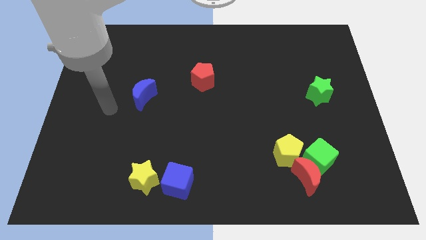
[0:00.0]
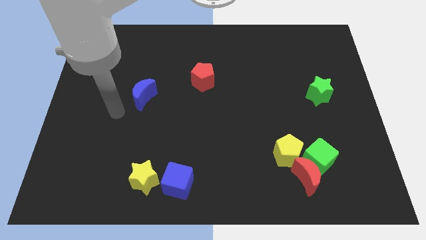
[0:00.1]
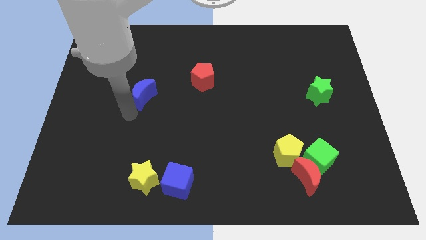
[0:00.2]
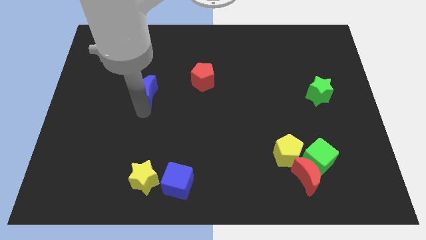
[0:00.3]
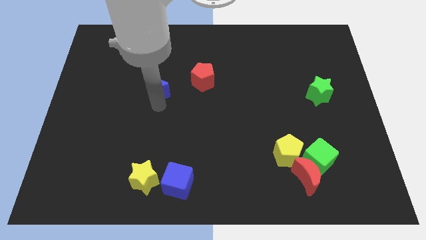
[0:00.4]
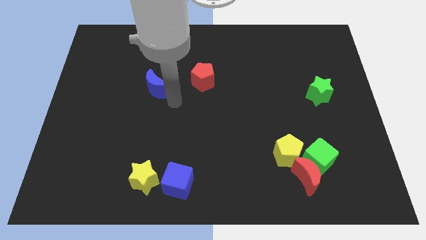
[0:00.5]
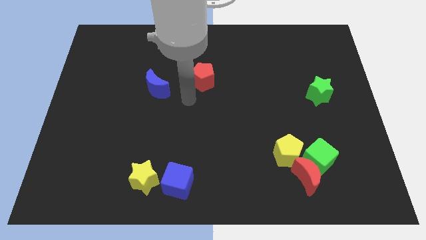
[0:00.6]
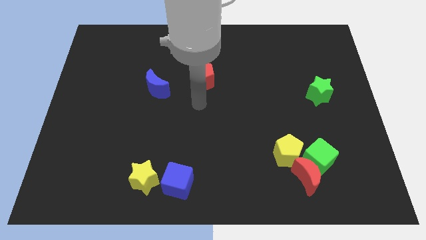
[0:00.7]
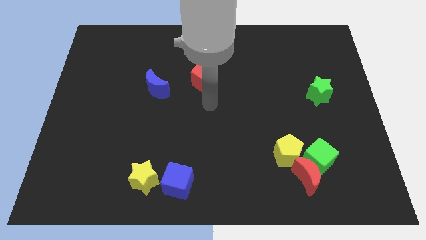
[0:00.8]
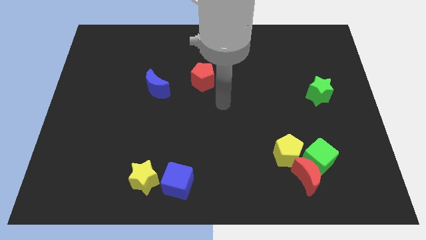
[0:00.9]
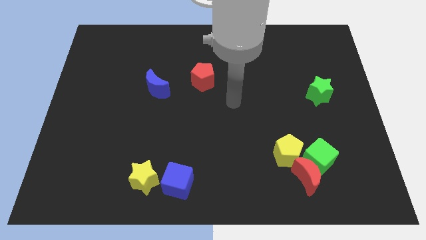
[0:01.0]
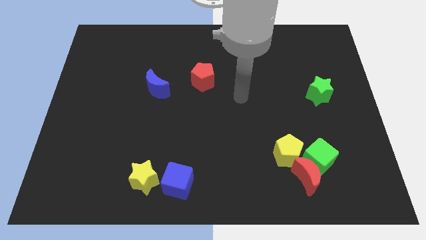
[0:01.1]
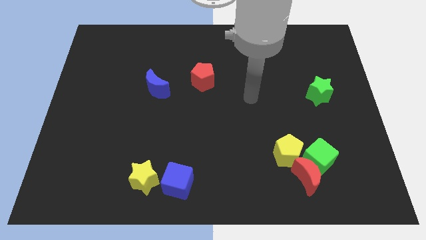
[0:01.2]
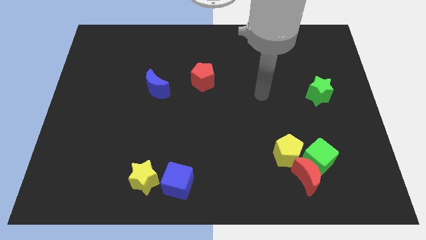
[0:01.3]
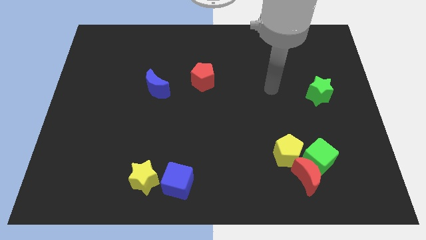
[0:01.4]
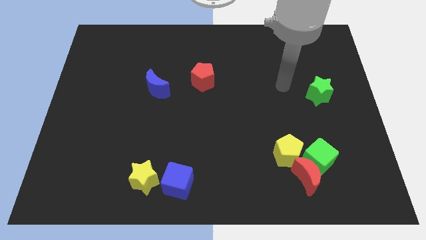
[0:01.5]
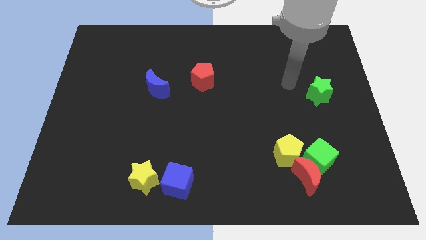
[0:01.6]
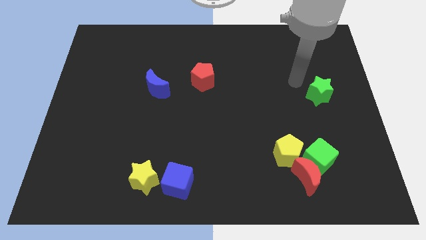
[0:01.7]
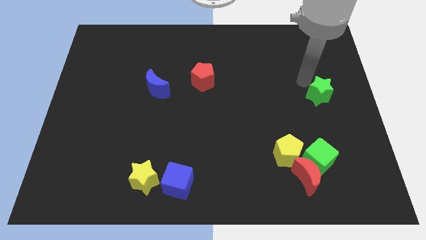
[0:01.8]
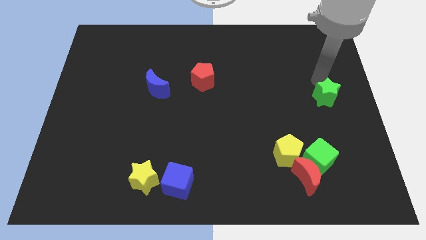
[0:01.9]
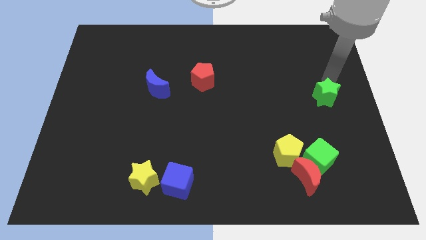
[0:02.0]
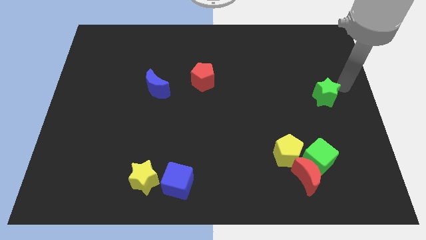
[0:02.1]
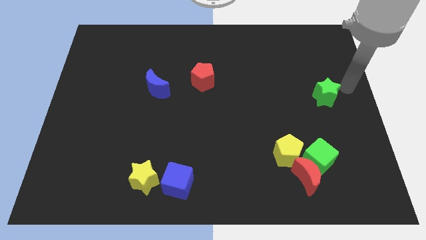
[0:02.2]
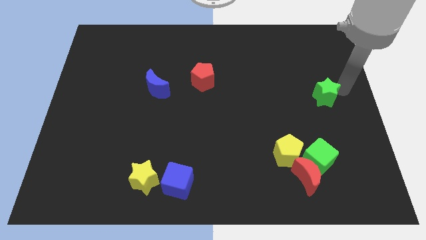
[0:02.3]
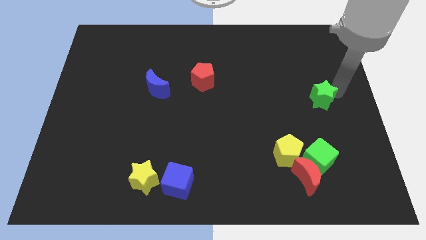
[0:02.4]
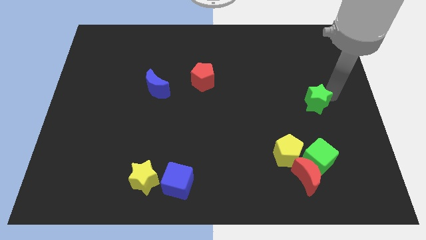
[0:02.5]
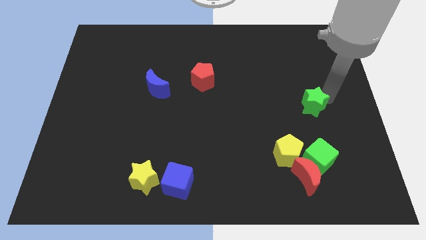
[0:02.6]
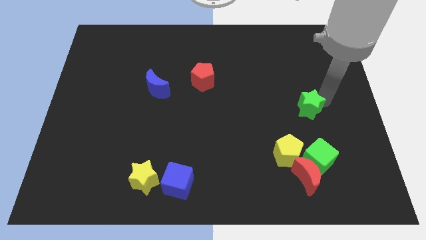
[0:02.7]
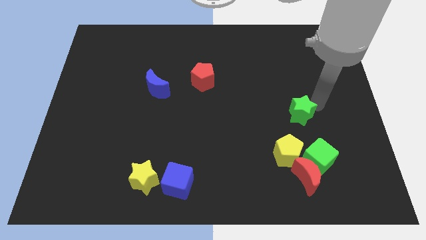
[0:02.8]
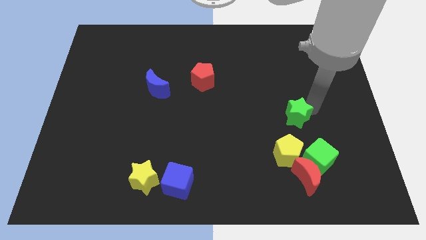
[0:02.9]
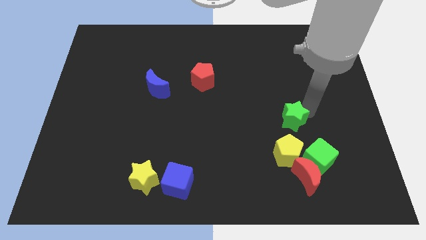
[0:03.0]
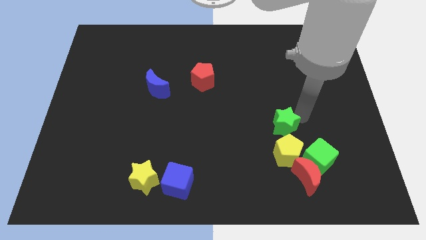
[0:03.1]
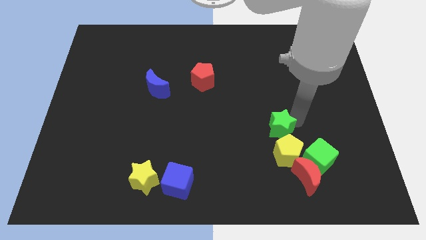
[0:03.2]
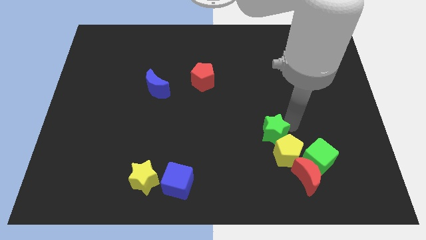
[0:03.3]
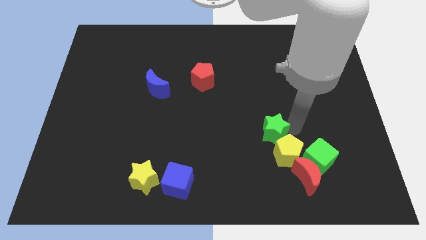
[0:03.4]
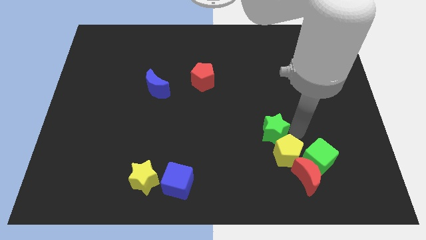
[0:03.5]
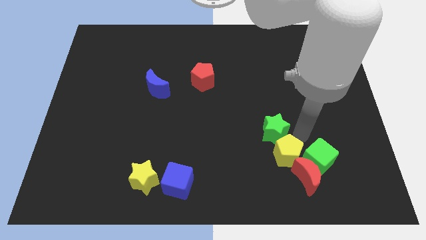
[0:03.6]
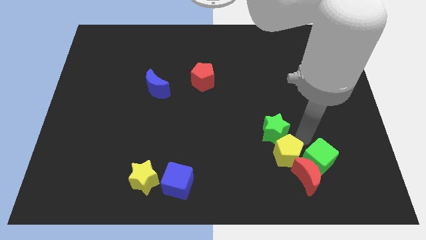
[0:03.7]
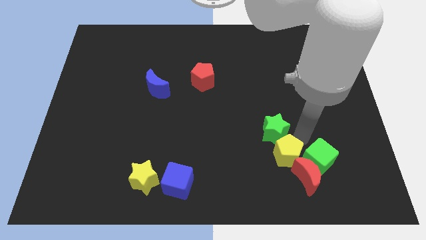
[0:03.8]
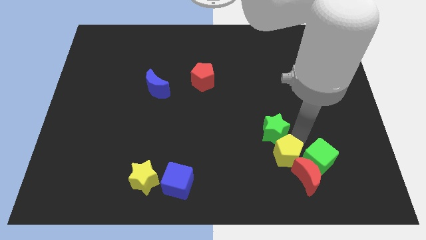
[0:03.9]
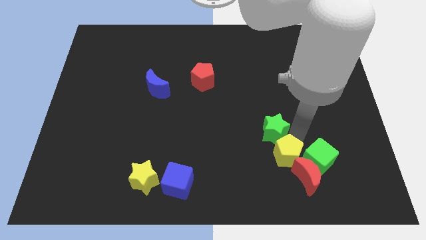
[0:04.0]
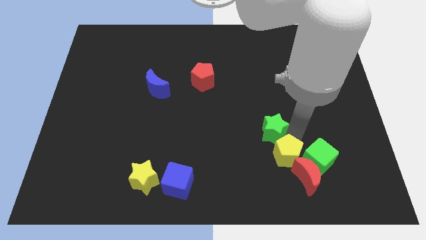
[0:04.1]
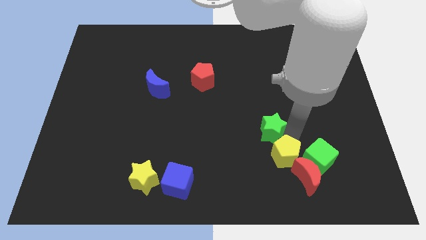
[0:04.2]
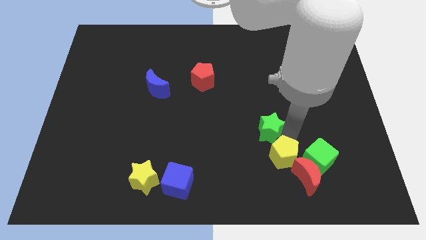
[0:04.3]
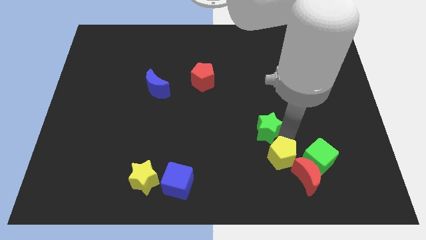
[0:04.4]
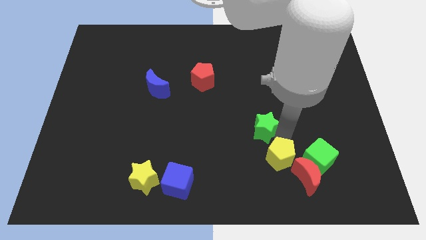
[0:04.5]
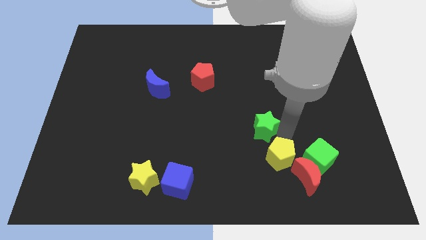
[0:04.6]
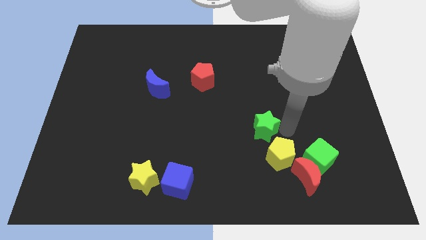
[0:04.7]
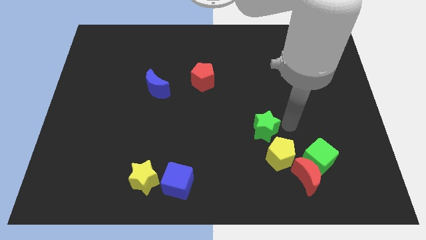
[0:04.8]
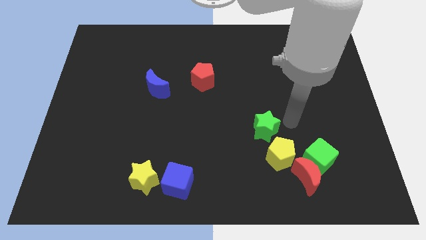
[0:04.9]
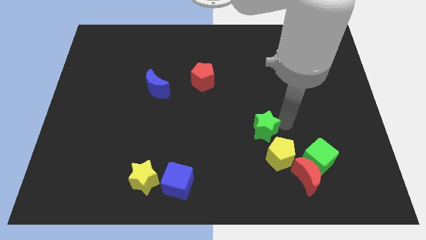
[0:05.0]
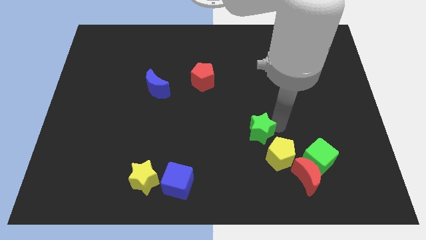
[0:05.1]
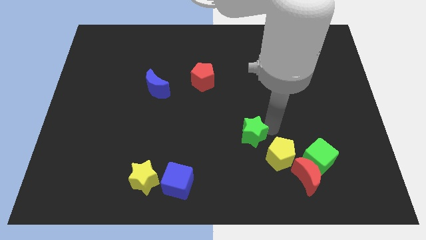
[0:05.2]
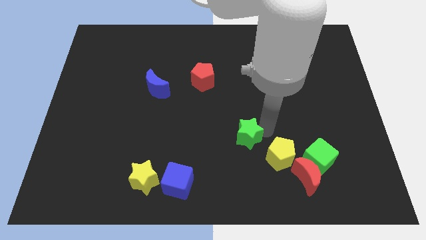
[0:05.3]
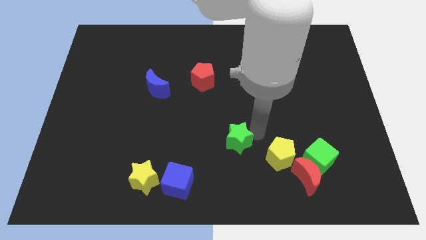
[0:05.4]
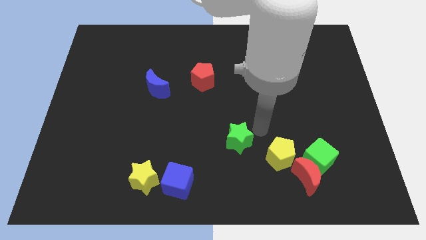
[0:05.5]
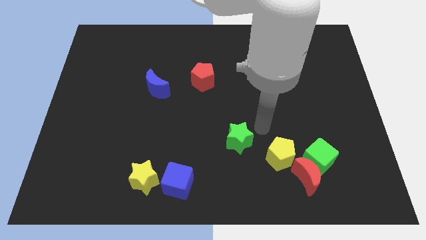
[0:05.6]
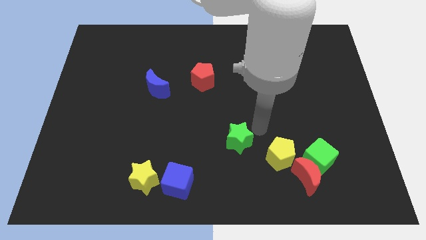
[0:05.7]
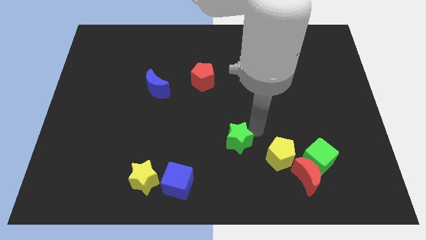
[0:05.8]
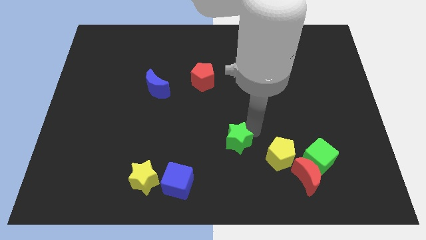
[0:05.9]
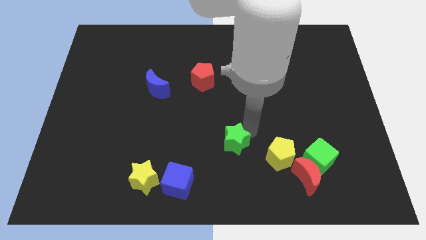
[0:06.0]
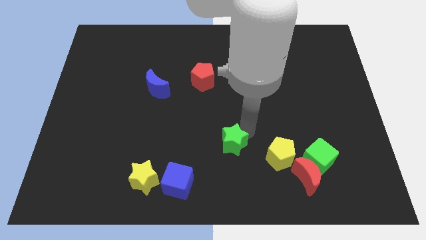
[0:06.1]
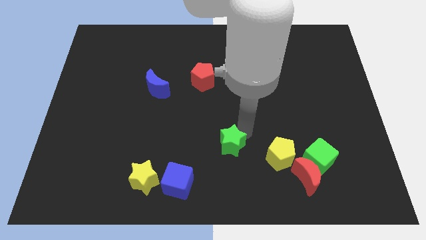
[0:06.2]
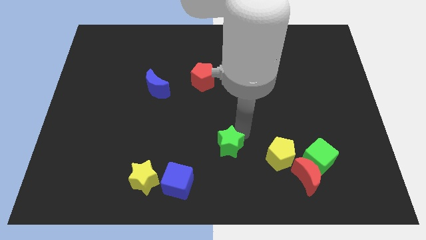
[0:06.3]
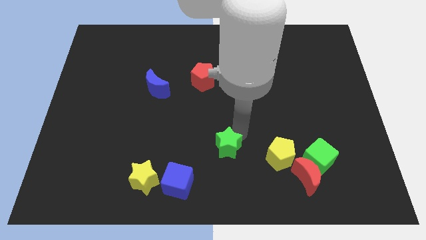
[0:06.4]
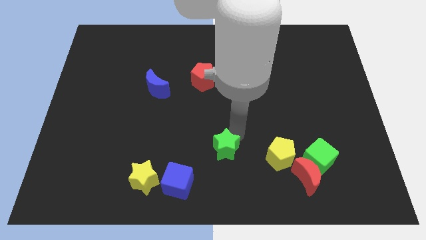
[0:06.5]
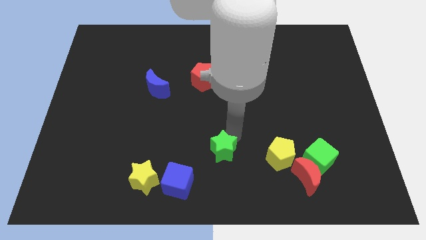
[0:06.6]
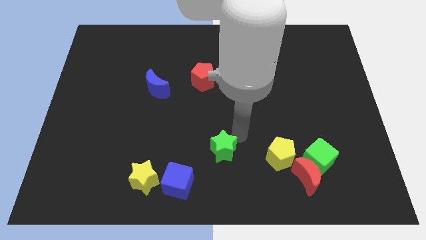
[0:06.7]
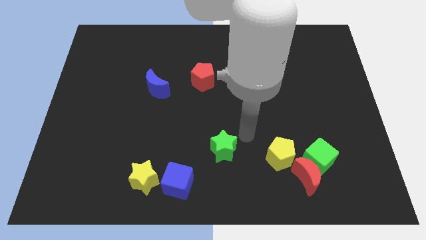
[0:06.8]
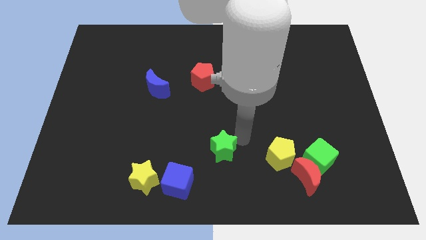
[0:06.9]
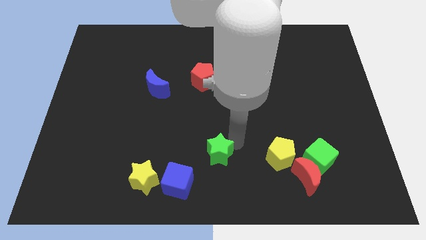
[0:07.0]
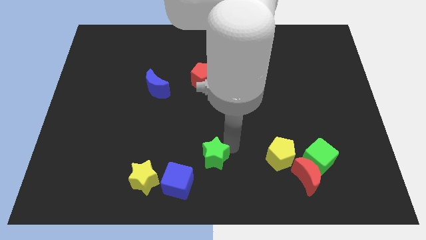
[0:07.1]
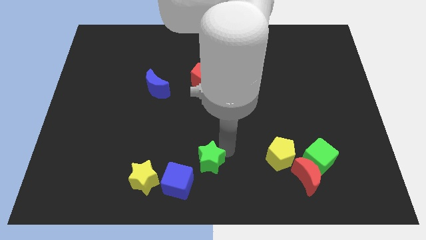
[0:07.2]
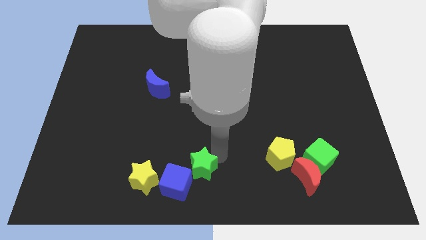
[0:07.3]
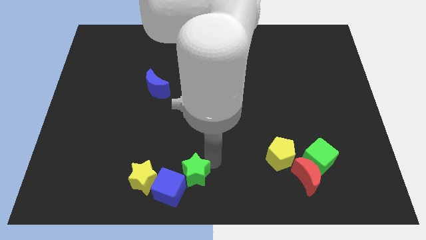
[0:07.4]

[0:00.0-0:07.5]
push the green star next to the blue cube
